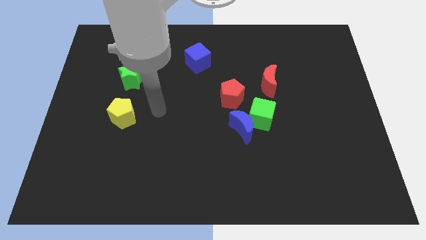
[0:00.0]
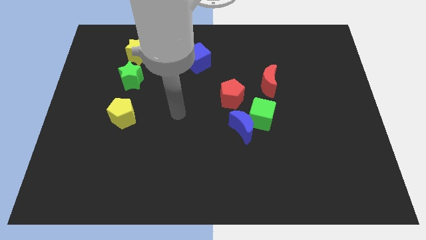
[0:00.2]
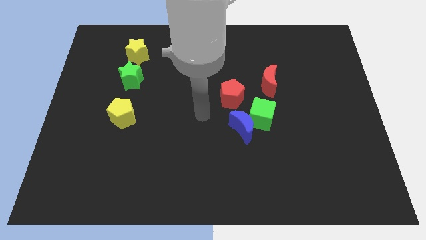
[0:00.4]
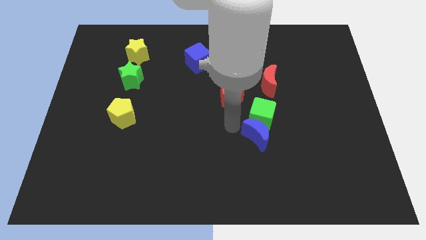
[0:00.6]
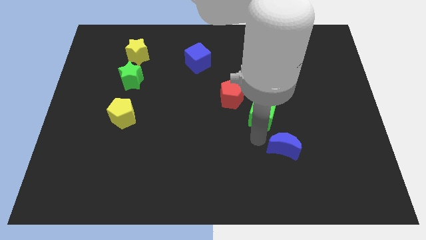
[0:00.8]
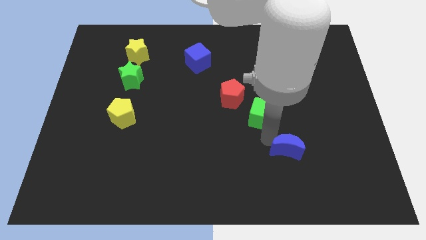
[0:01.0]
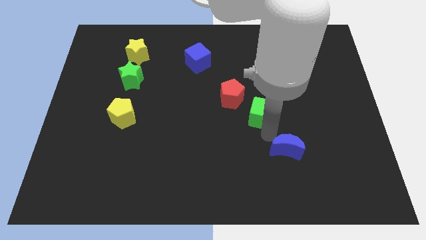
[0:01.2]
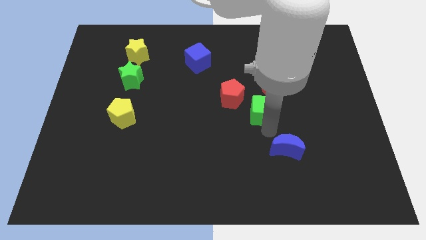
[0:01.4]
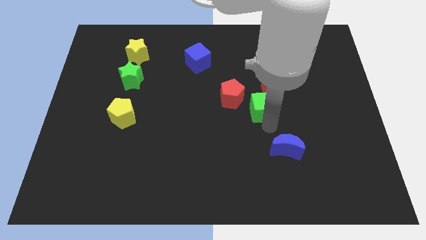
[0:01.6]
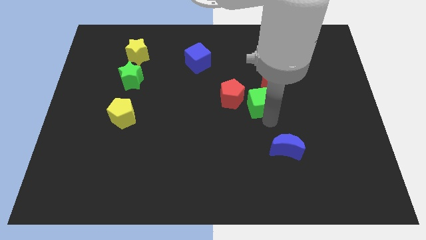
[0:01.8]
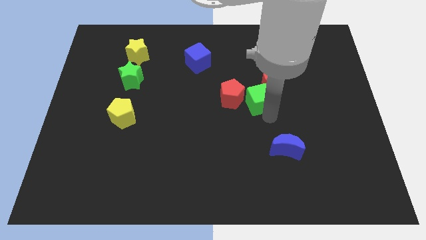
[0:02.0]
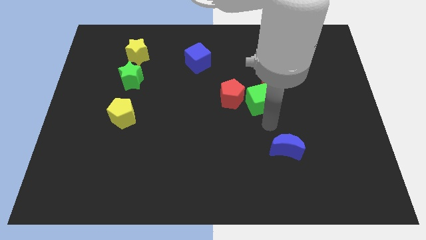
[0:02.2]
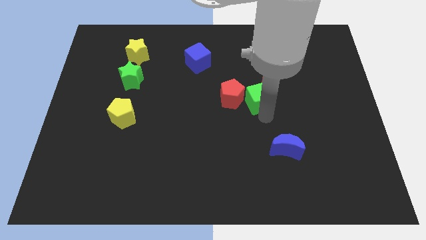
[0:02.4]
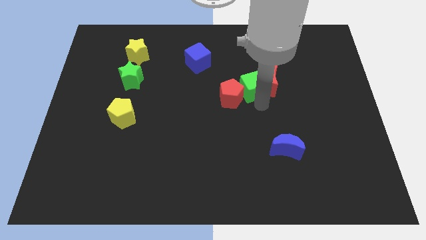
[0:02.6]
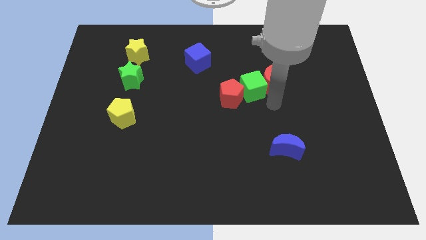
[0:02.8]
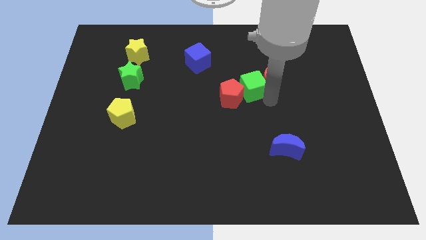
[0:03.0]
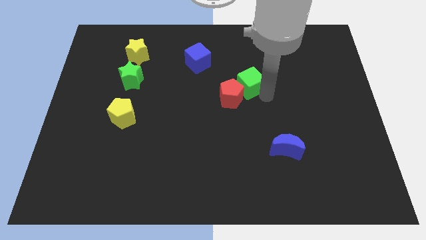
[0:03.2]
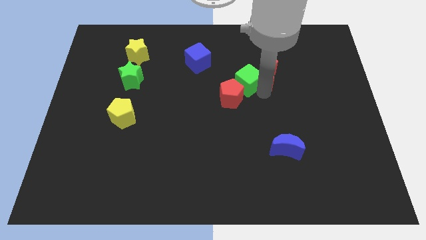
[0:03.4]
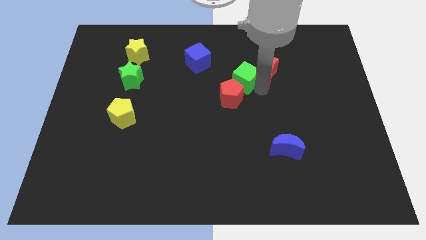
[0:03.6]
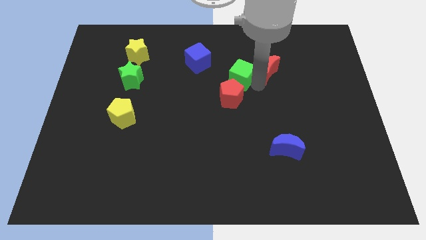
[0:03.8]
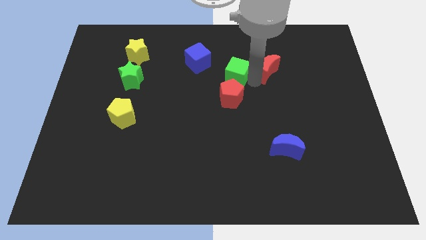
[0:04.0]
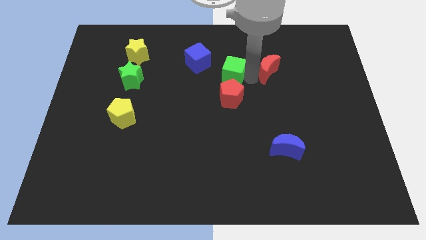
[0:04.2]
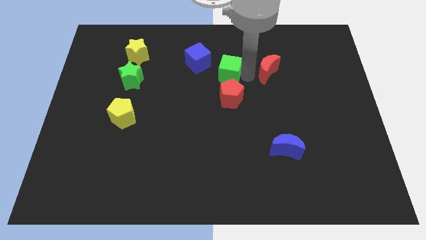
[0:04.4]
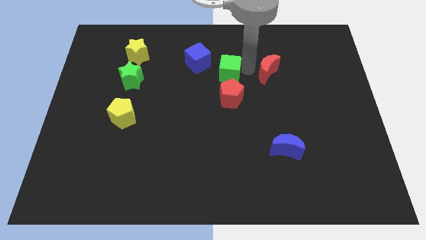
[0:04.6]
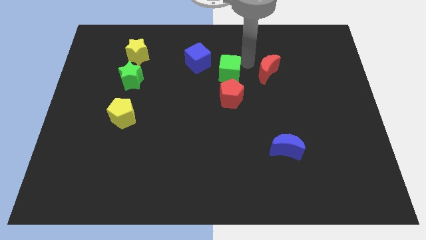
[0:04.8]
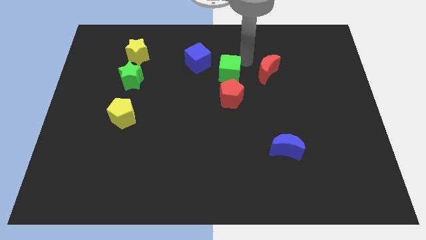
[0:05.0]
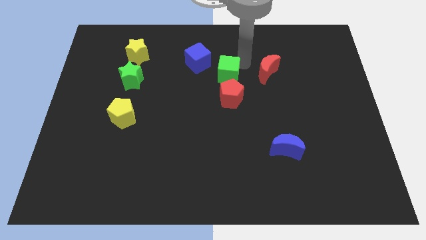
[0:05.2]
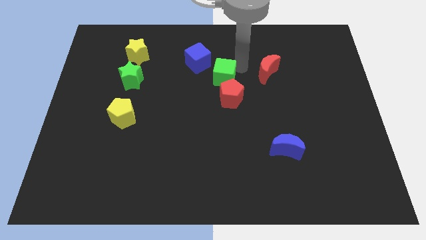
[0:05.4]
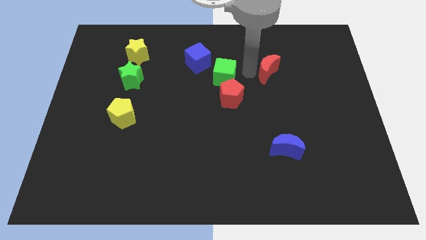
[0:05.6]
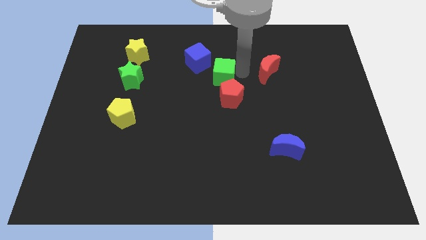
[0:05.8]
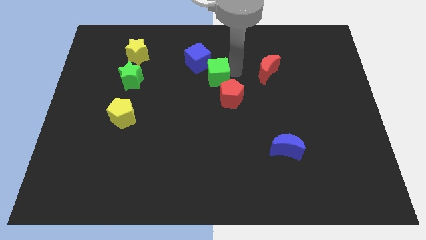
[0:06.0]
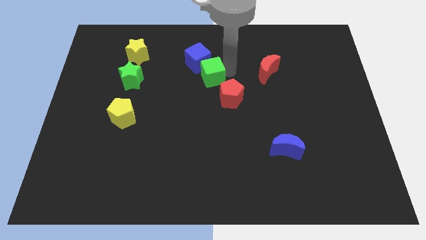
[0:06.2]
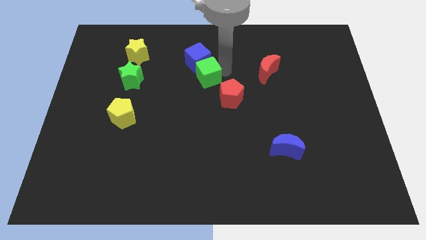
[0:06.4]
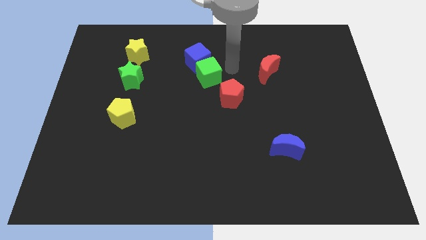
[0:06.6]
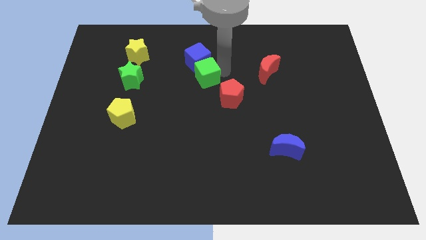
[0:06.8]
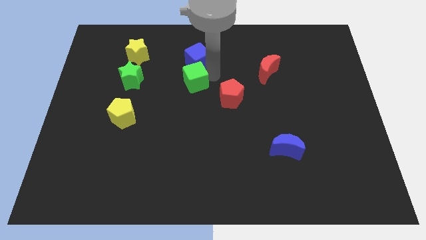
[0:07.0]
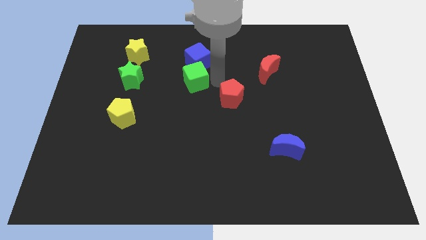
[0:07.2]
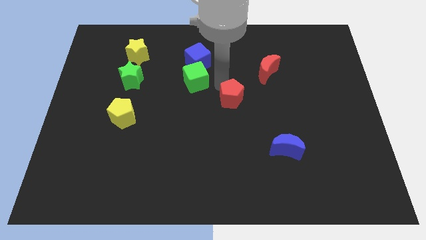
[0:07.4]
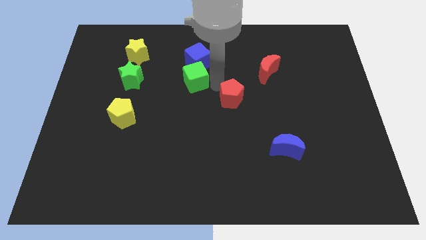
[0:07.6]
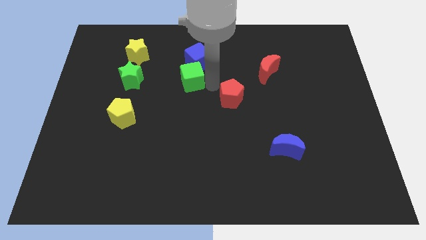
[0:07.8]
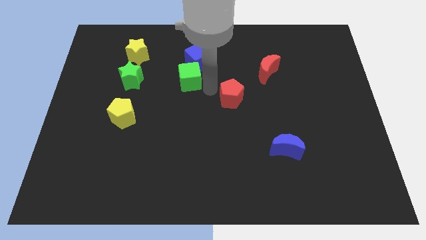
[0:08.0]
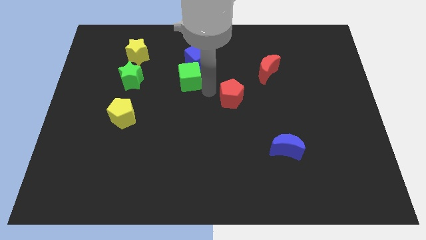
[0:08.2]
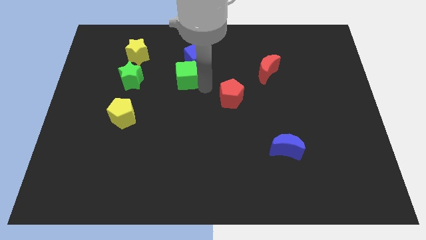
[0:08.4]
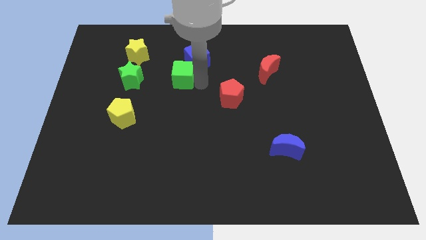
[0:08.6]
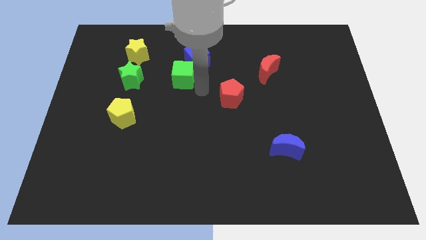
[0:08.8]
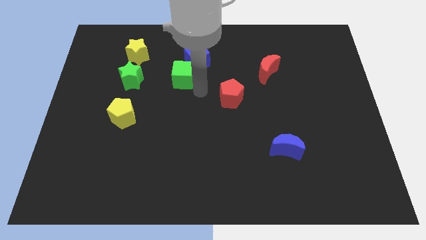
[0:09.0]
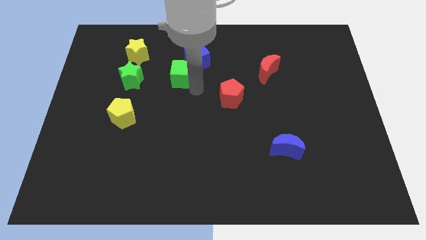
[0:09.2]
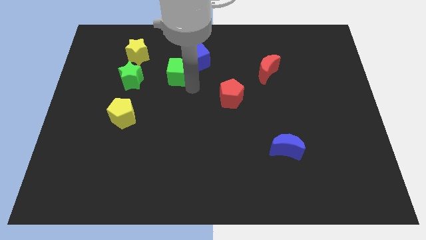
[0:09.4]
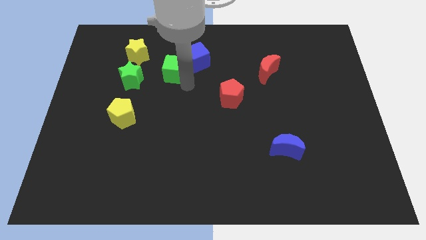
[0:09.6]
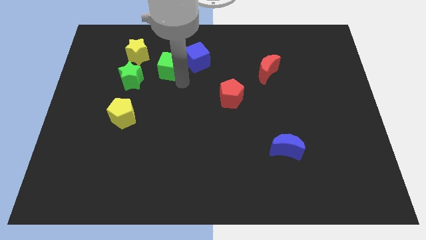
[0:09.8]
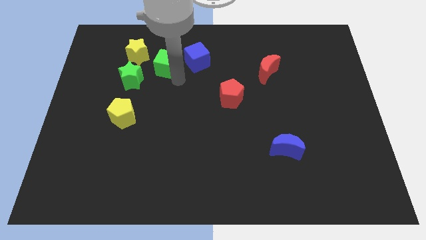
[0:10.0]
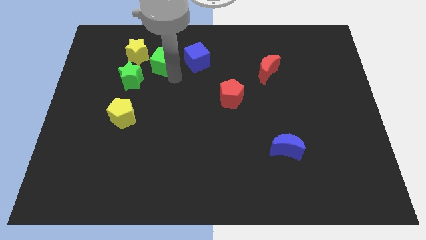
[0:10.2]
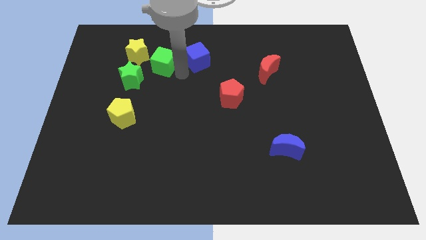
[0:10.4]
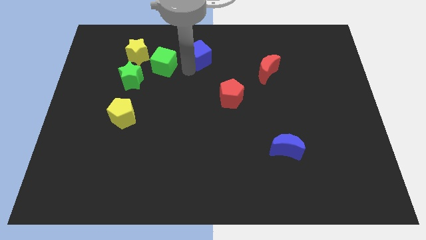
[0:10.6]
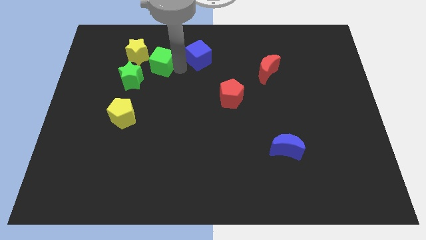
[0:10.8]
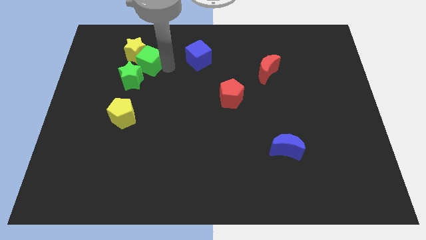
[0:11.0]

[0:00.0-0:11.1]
put the green cube towards the yellow star
